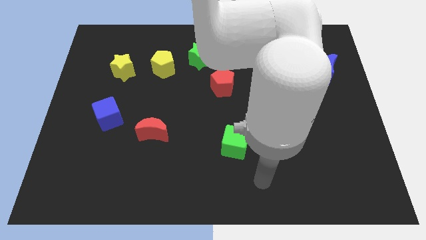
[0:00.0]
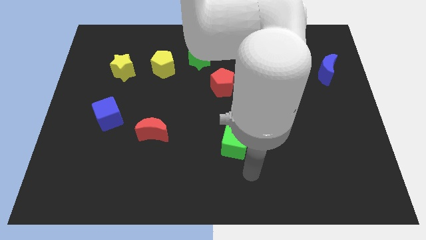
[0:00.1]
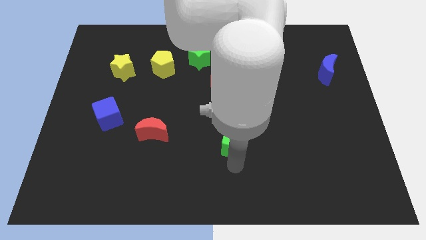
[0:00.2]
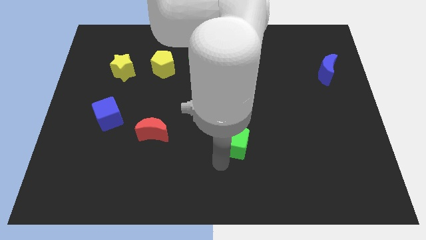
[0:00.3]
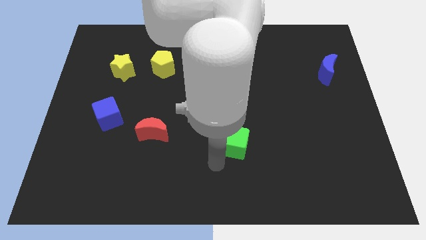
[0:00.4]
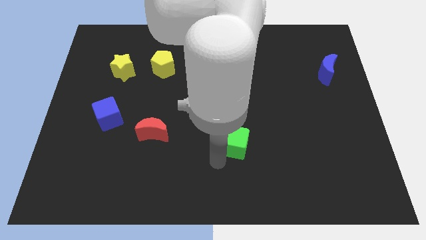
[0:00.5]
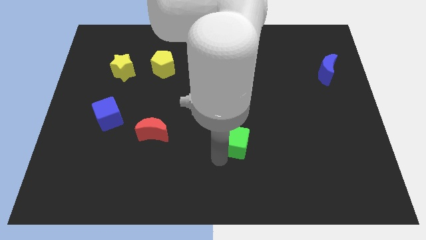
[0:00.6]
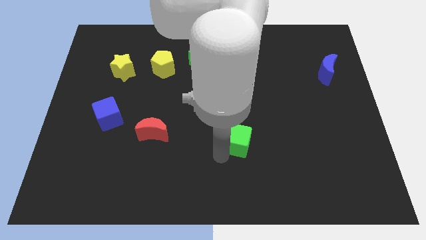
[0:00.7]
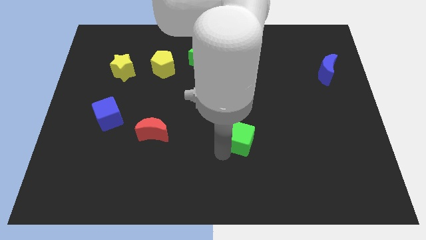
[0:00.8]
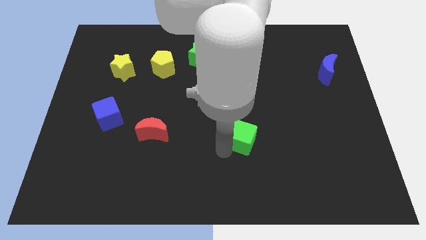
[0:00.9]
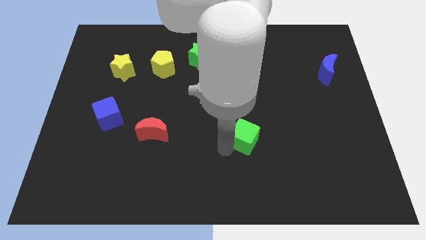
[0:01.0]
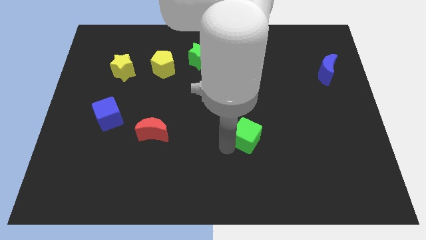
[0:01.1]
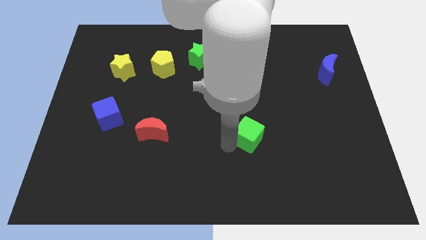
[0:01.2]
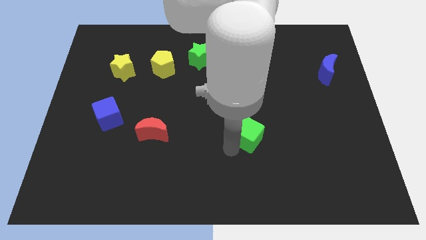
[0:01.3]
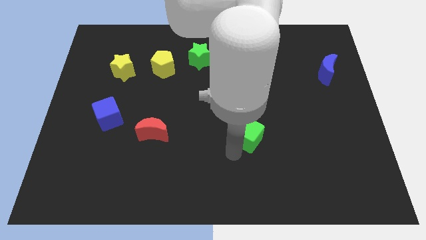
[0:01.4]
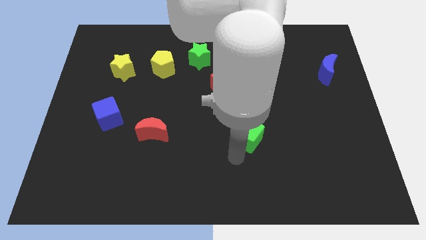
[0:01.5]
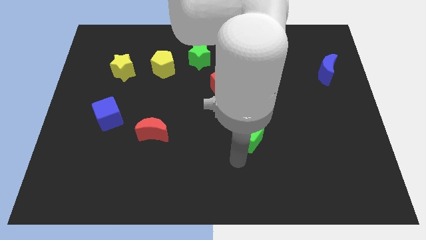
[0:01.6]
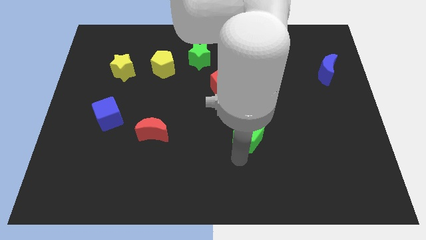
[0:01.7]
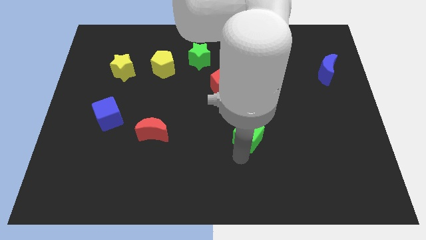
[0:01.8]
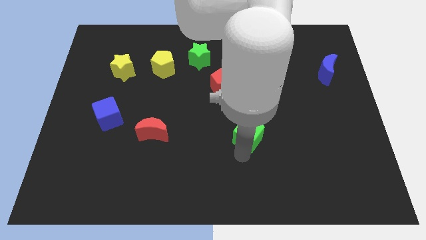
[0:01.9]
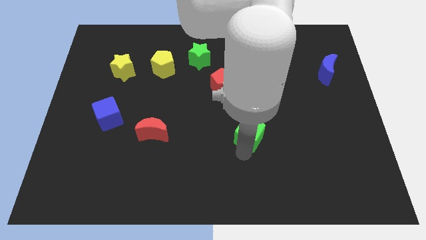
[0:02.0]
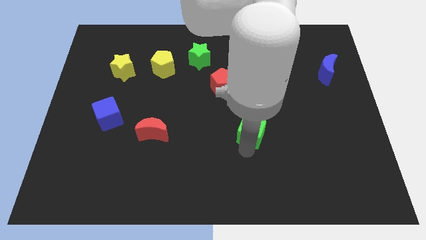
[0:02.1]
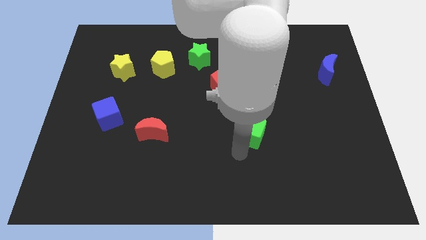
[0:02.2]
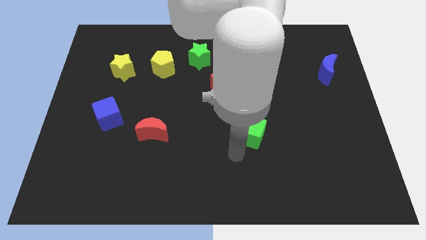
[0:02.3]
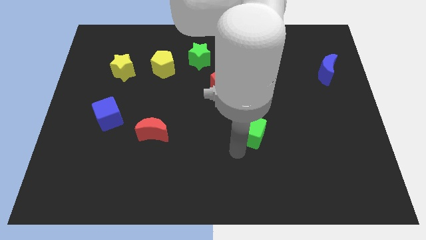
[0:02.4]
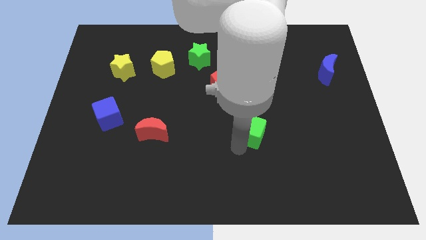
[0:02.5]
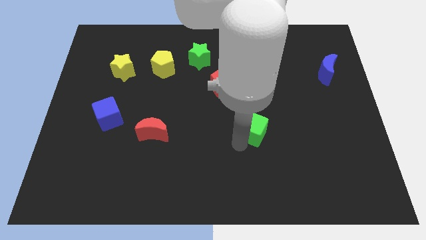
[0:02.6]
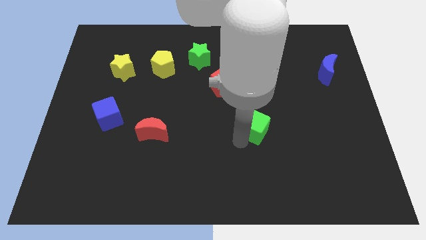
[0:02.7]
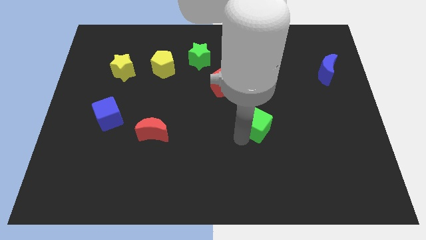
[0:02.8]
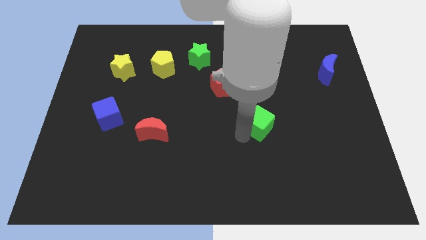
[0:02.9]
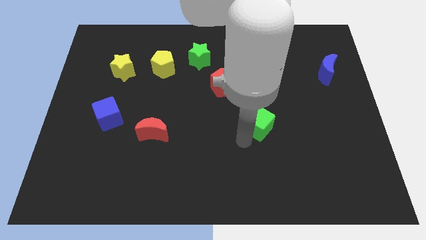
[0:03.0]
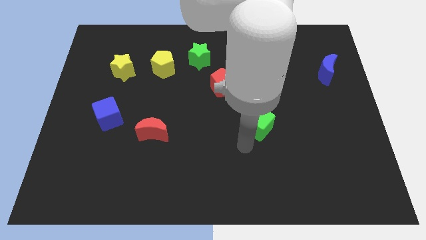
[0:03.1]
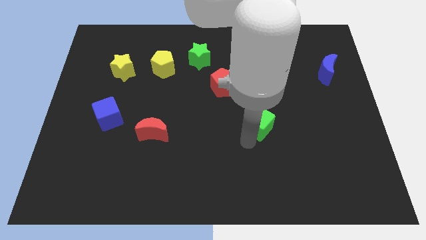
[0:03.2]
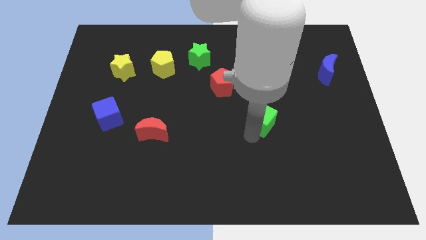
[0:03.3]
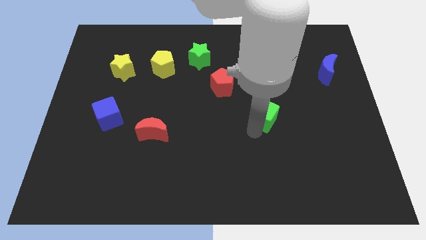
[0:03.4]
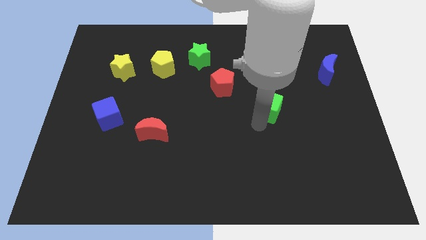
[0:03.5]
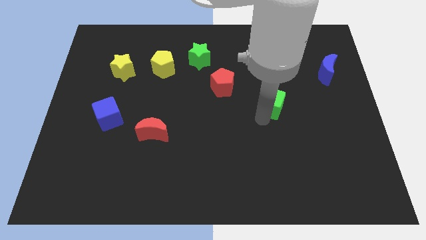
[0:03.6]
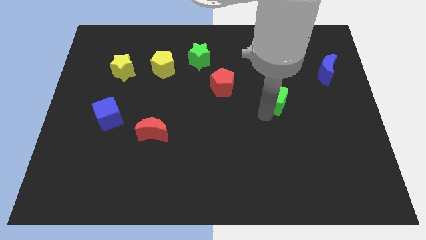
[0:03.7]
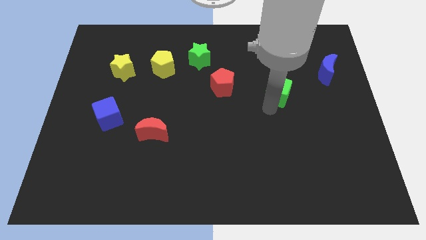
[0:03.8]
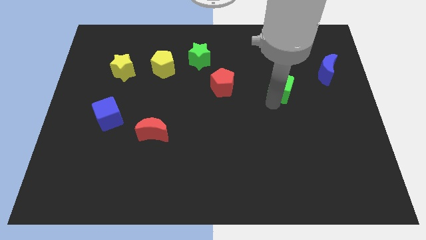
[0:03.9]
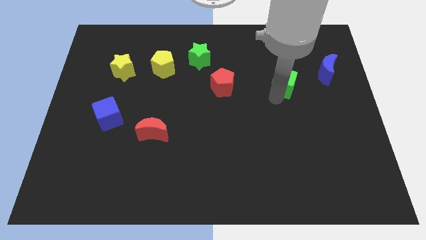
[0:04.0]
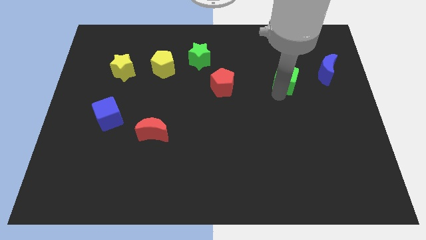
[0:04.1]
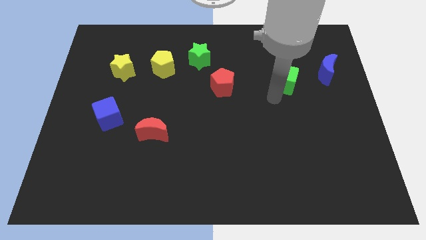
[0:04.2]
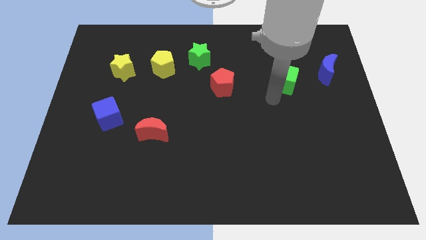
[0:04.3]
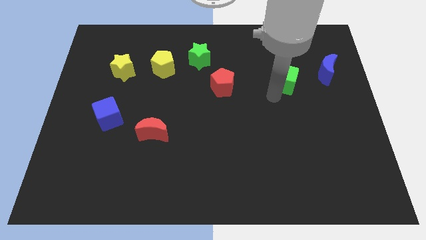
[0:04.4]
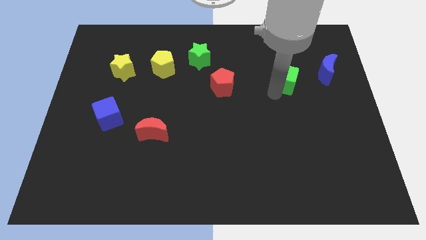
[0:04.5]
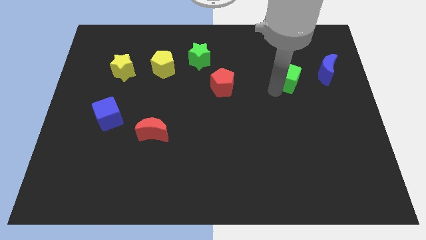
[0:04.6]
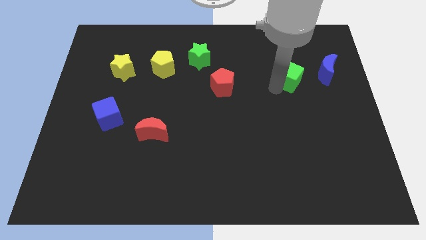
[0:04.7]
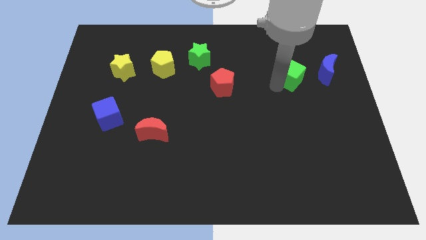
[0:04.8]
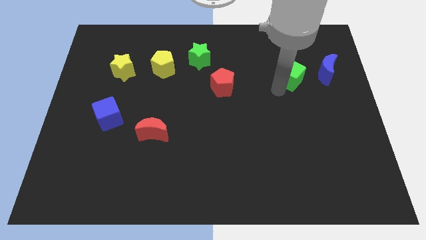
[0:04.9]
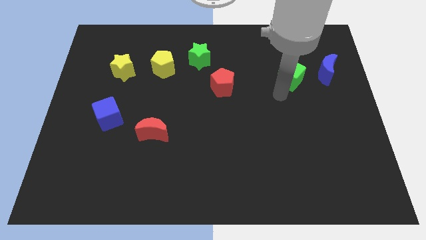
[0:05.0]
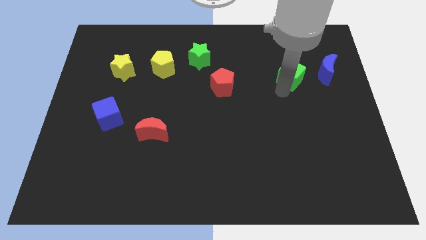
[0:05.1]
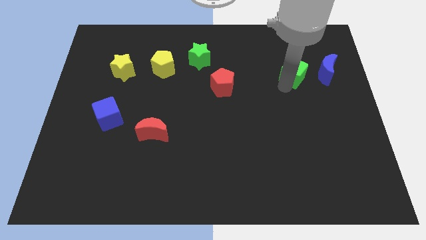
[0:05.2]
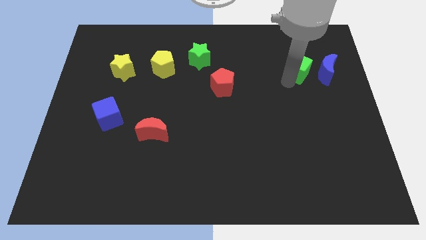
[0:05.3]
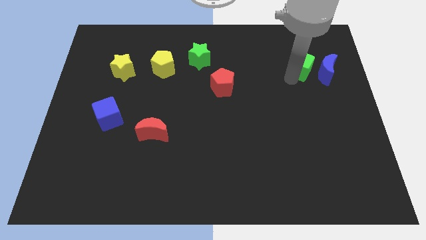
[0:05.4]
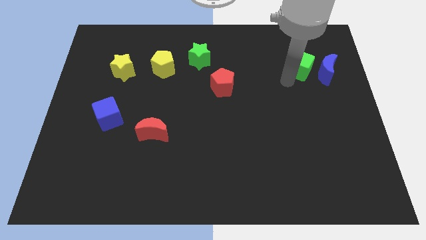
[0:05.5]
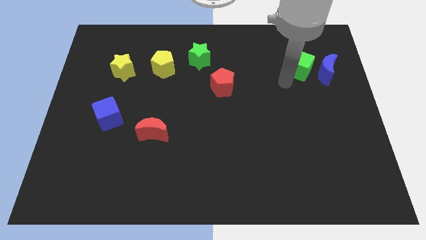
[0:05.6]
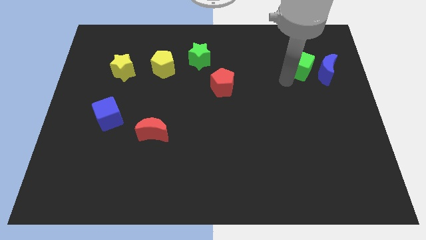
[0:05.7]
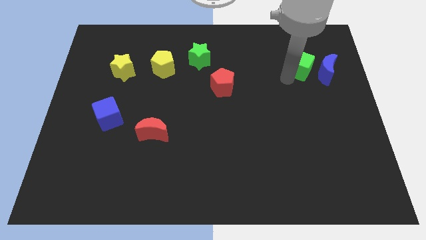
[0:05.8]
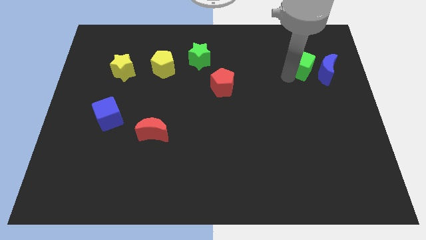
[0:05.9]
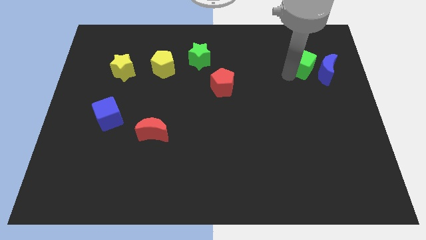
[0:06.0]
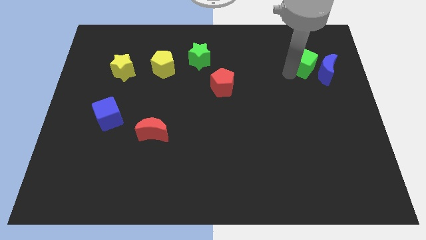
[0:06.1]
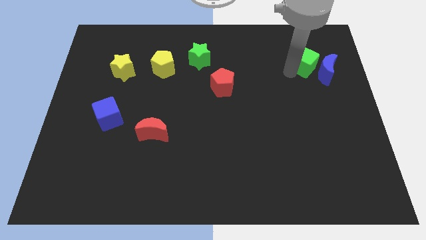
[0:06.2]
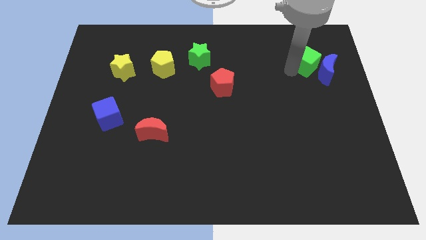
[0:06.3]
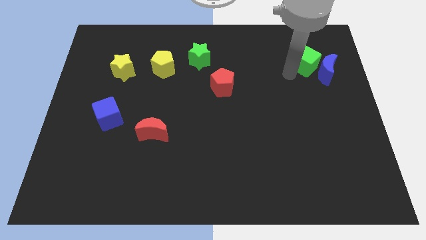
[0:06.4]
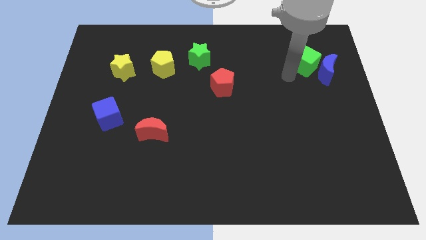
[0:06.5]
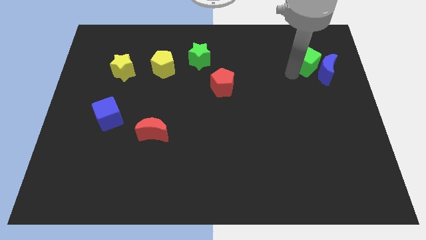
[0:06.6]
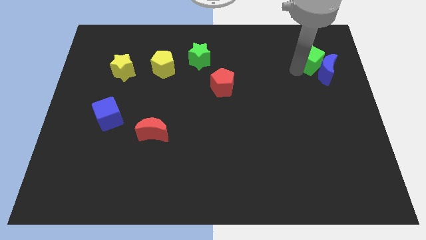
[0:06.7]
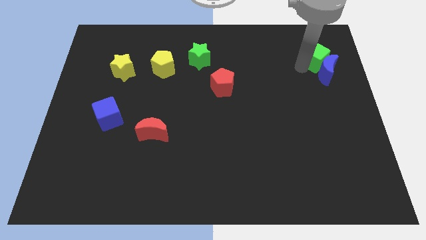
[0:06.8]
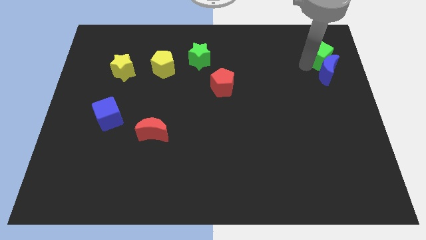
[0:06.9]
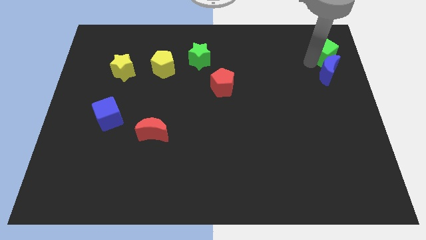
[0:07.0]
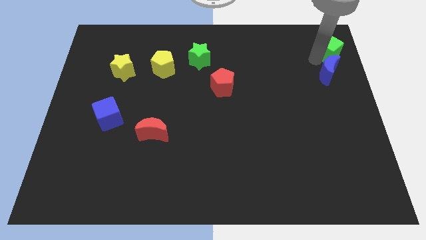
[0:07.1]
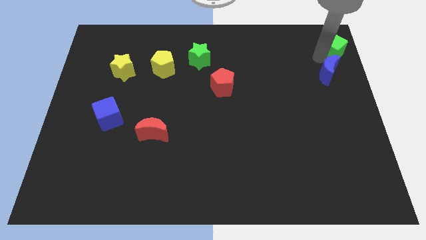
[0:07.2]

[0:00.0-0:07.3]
slide the green cube to the top right
